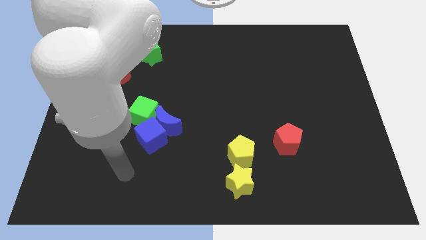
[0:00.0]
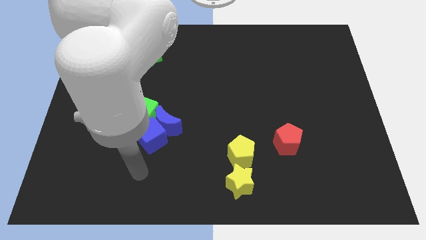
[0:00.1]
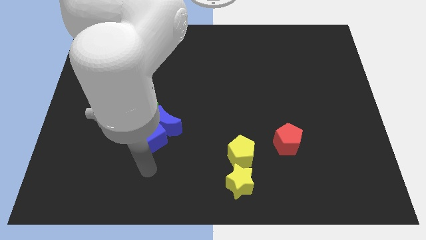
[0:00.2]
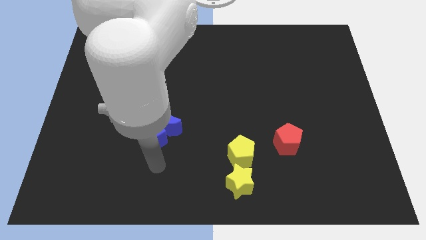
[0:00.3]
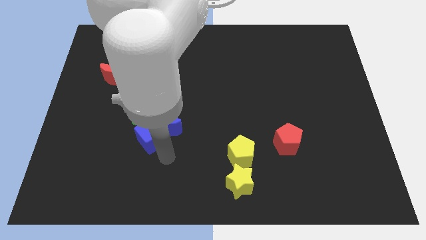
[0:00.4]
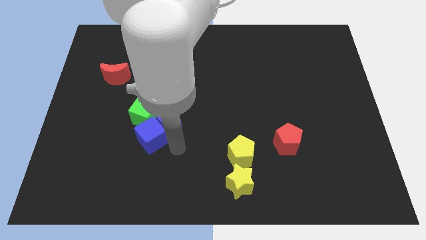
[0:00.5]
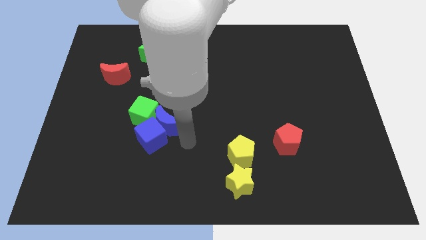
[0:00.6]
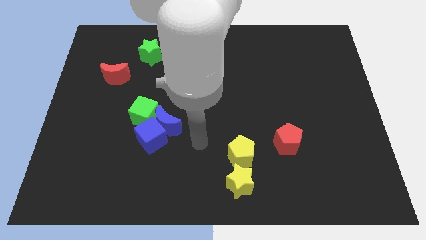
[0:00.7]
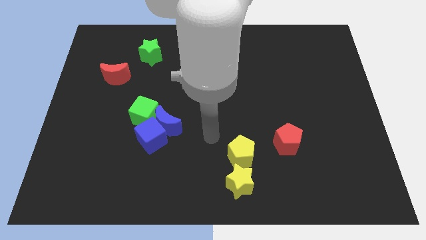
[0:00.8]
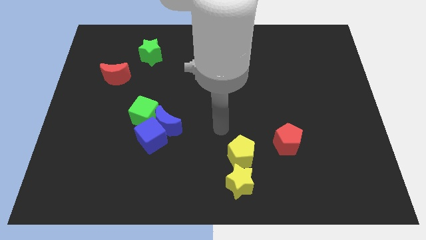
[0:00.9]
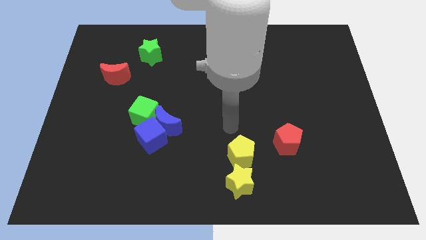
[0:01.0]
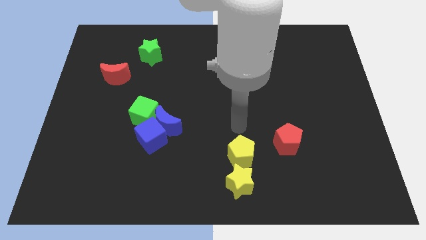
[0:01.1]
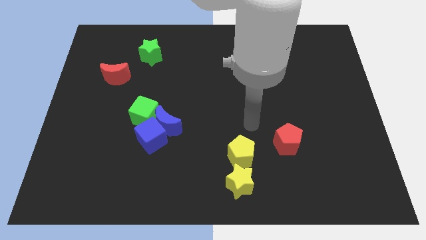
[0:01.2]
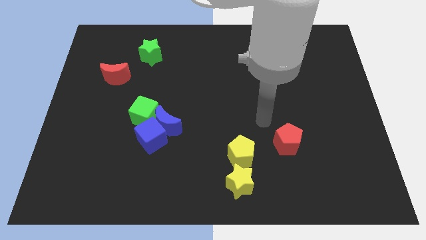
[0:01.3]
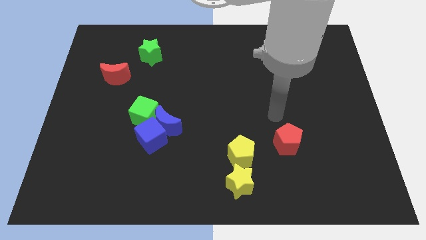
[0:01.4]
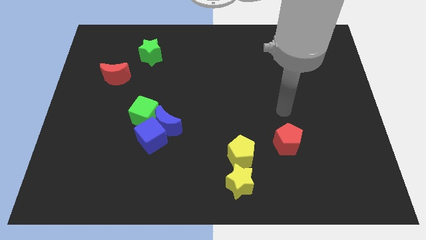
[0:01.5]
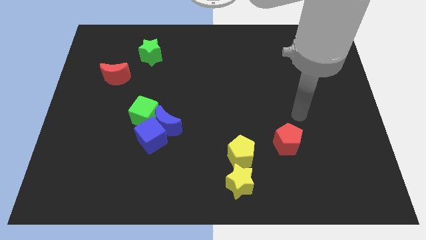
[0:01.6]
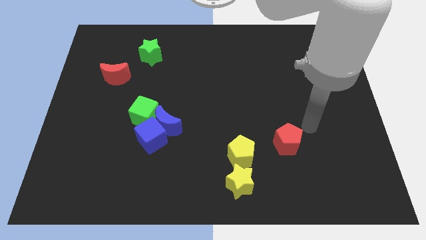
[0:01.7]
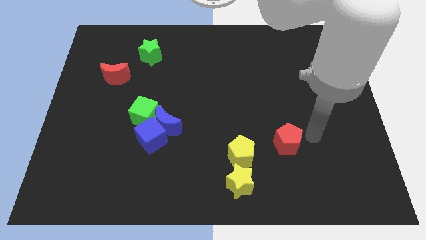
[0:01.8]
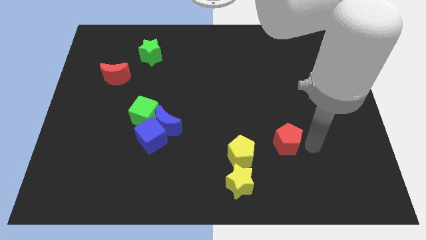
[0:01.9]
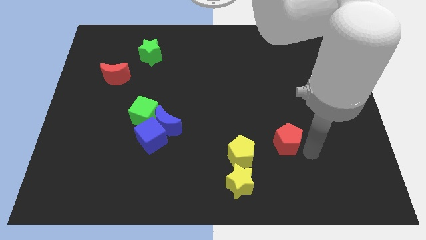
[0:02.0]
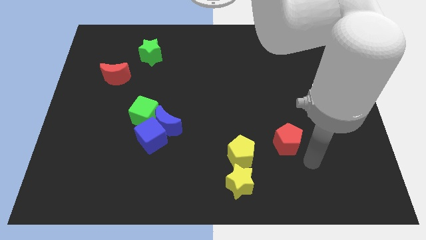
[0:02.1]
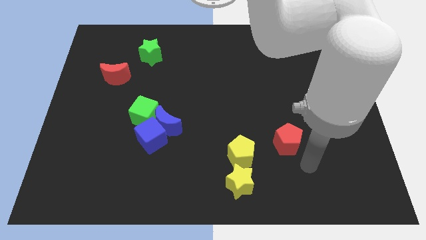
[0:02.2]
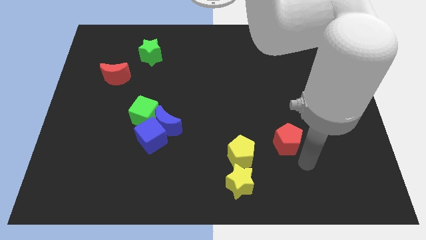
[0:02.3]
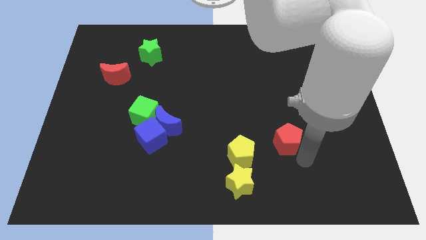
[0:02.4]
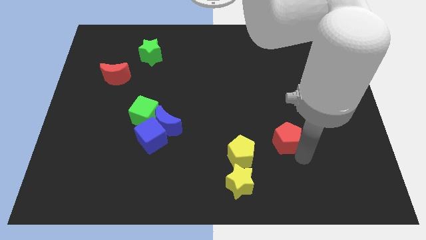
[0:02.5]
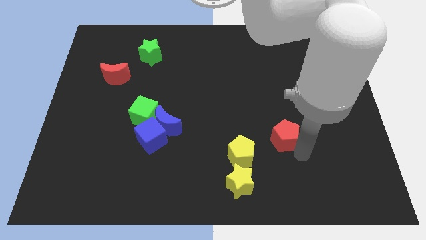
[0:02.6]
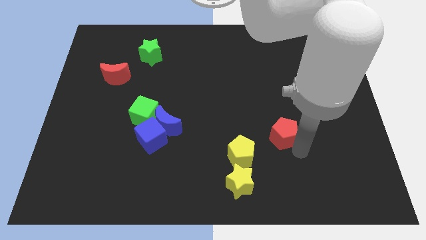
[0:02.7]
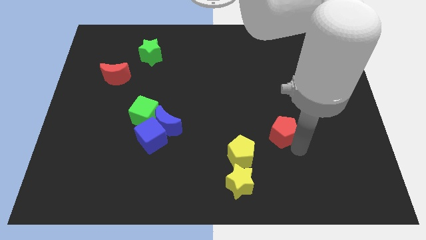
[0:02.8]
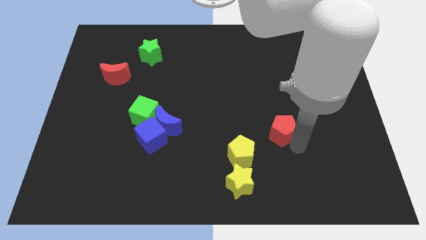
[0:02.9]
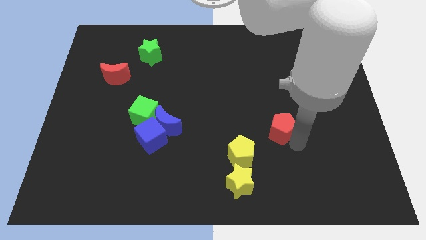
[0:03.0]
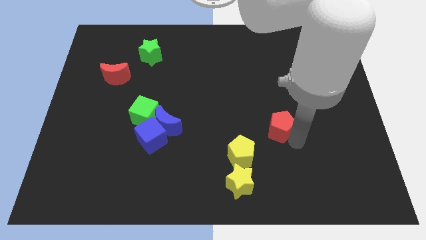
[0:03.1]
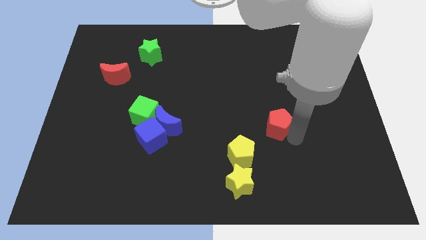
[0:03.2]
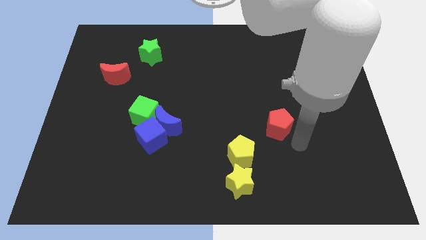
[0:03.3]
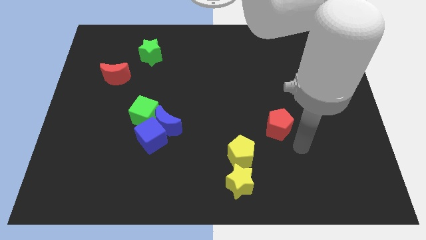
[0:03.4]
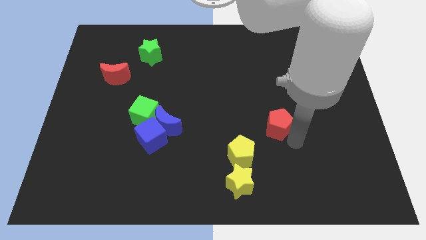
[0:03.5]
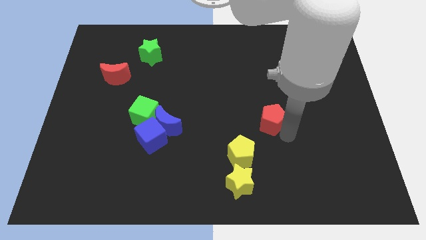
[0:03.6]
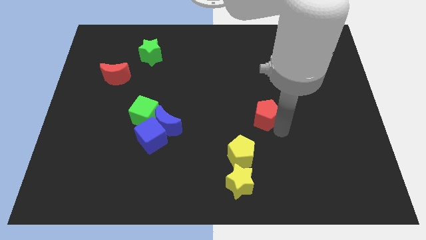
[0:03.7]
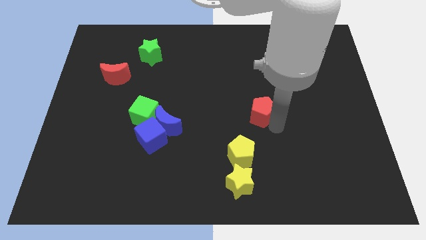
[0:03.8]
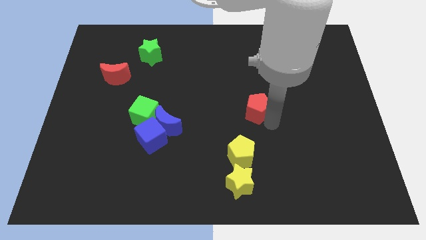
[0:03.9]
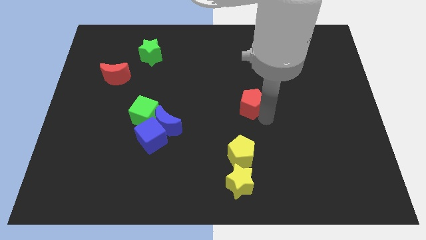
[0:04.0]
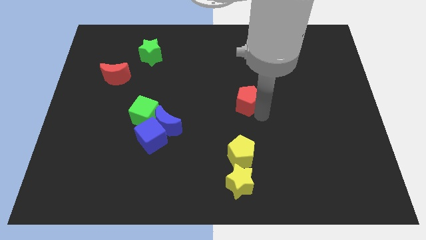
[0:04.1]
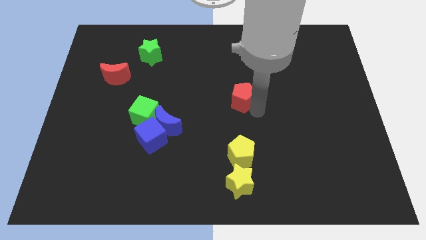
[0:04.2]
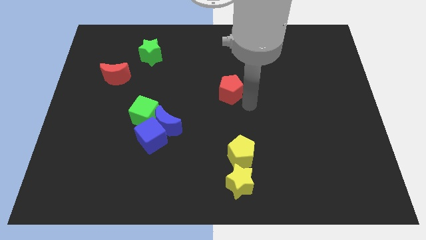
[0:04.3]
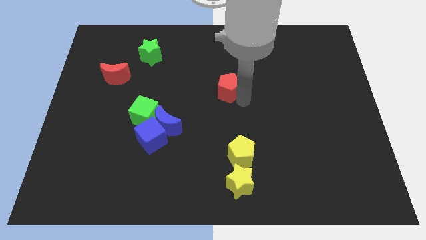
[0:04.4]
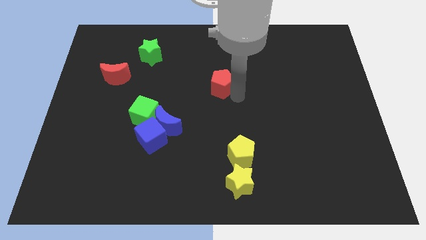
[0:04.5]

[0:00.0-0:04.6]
push the red pentagon up and left

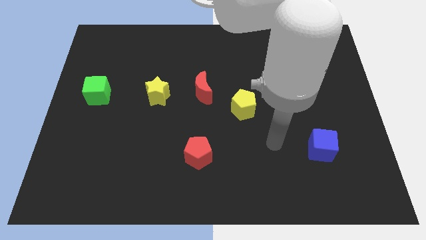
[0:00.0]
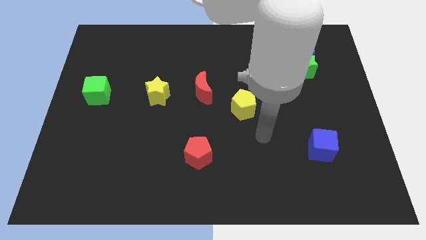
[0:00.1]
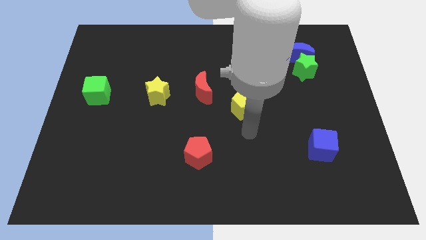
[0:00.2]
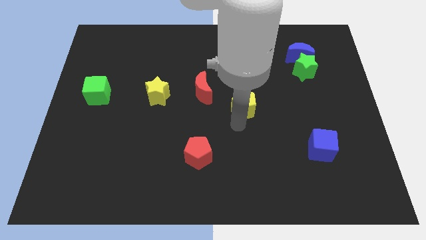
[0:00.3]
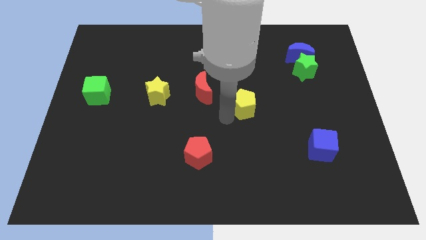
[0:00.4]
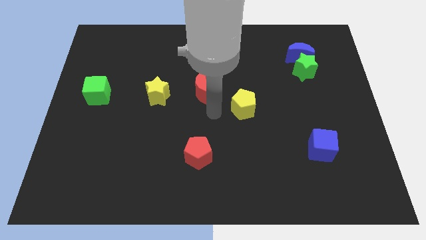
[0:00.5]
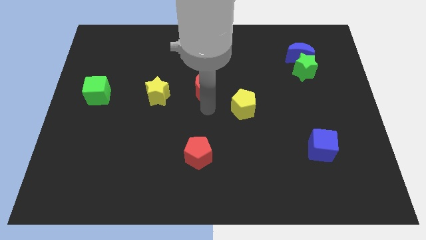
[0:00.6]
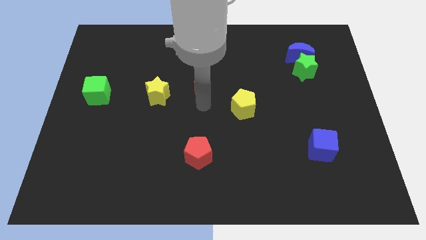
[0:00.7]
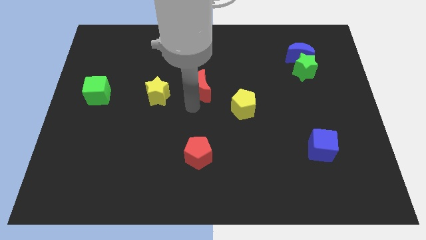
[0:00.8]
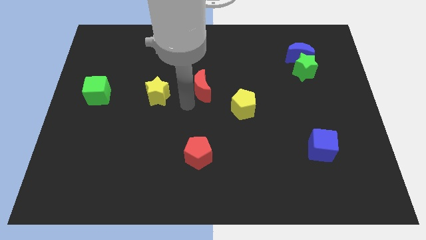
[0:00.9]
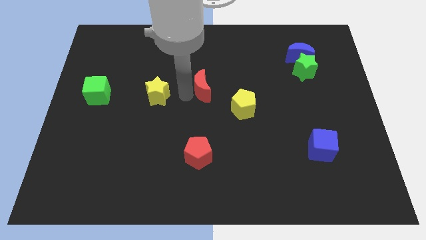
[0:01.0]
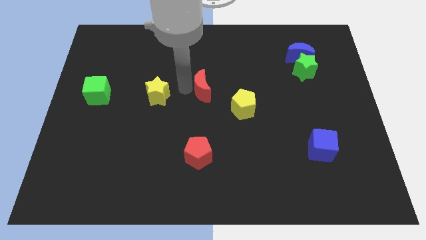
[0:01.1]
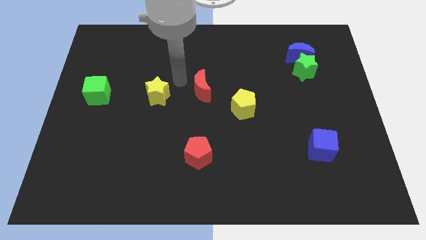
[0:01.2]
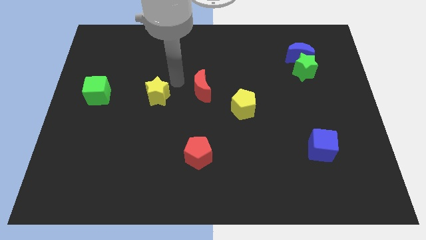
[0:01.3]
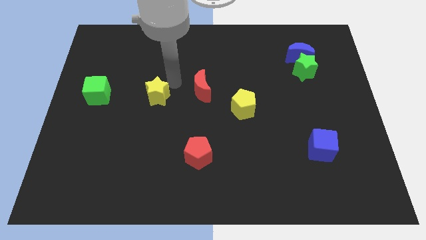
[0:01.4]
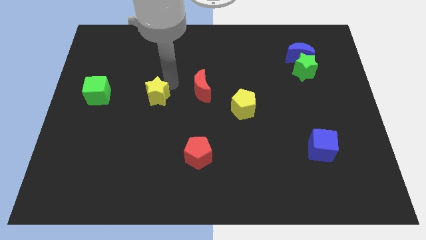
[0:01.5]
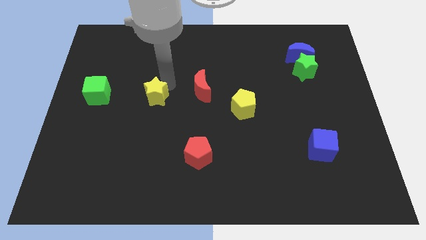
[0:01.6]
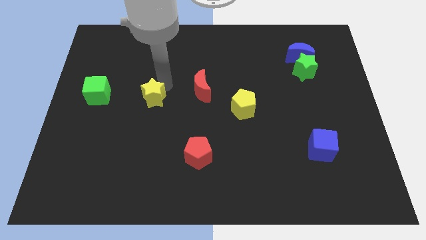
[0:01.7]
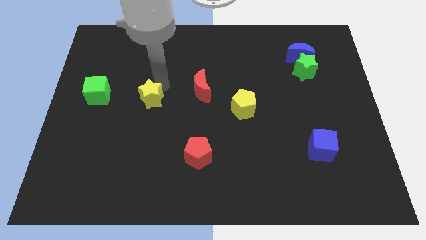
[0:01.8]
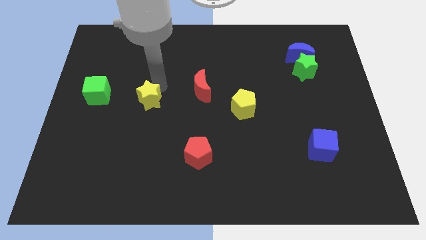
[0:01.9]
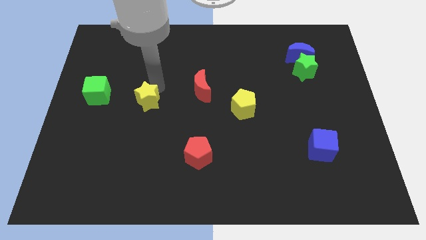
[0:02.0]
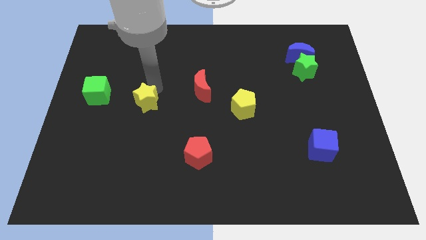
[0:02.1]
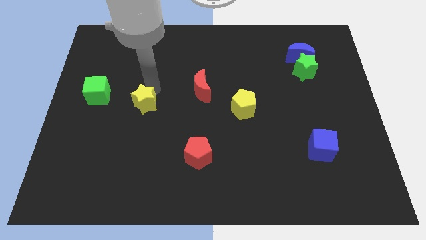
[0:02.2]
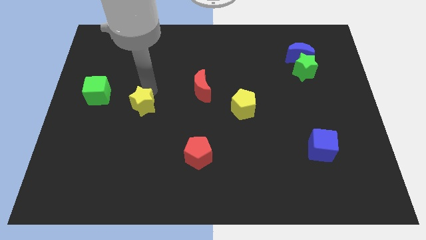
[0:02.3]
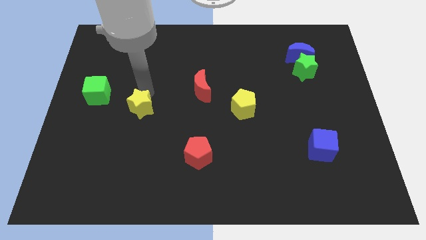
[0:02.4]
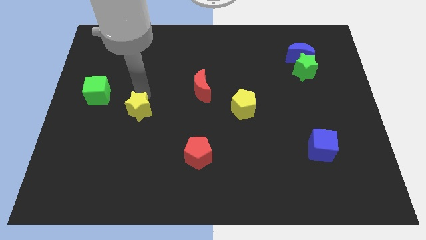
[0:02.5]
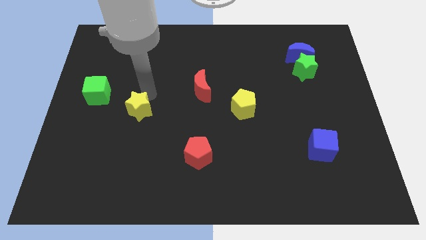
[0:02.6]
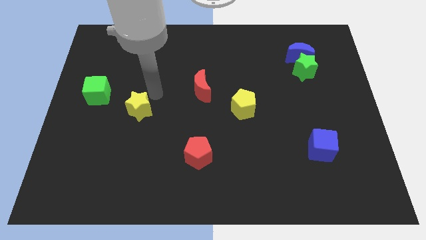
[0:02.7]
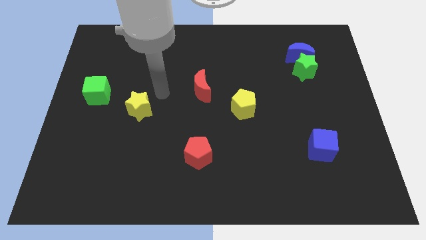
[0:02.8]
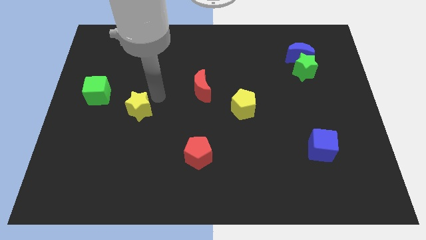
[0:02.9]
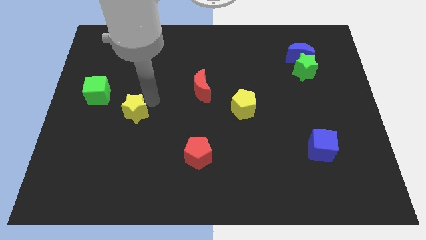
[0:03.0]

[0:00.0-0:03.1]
push the yellow star slightly down and to the left diagonally

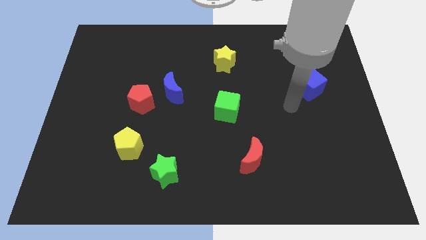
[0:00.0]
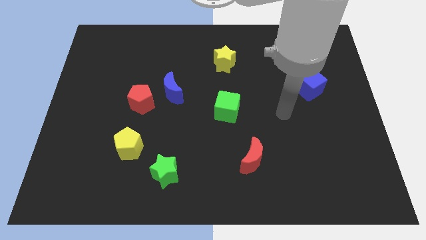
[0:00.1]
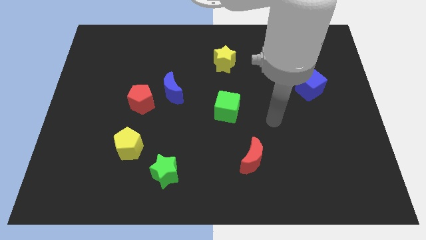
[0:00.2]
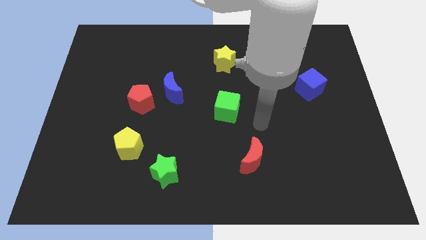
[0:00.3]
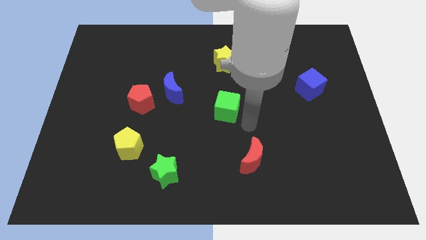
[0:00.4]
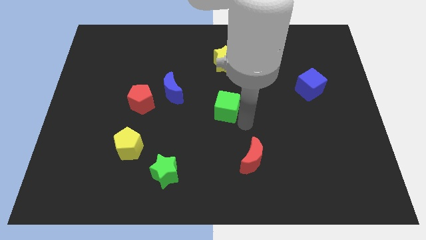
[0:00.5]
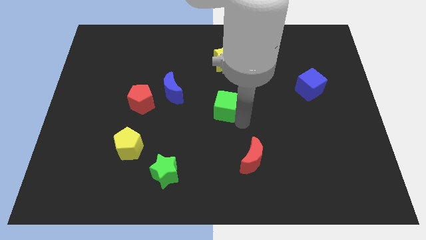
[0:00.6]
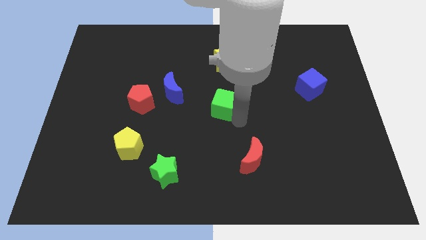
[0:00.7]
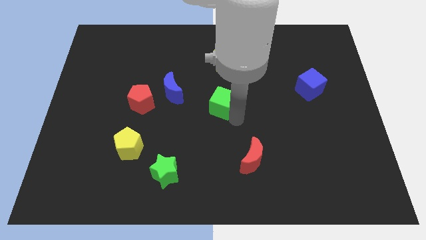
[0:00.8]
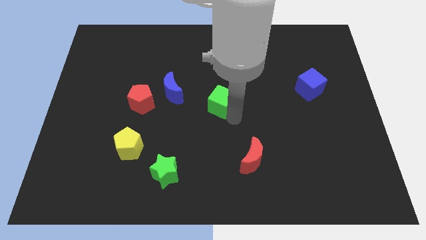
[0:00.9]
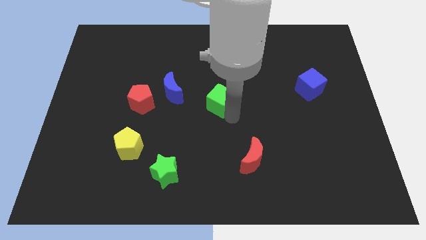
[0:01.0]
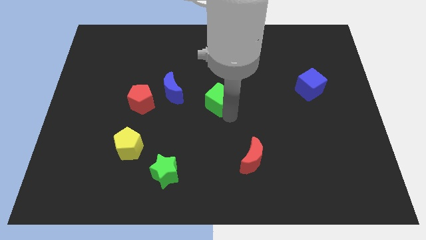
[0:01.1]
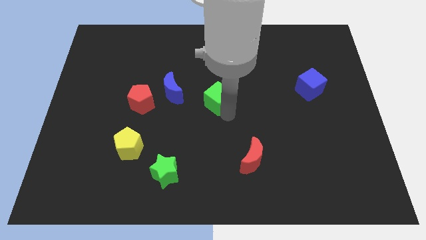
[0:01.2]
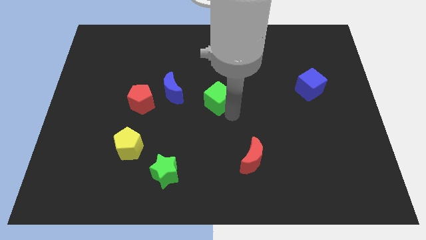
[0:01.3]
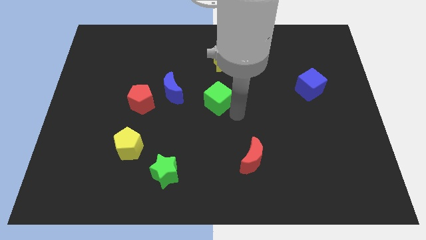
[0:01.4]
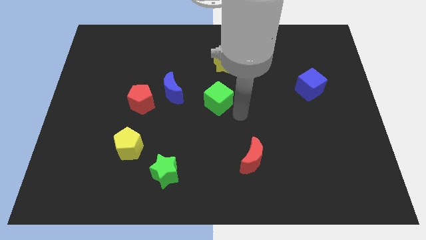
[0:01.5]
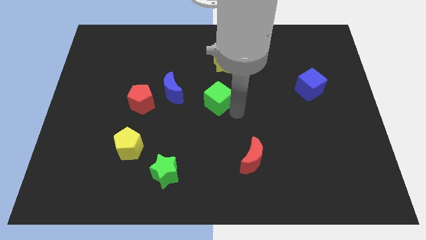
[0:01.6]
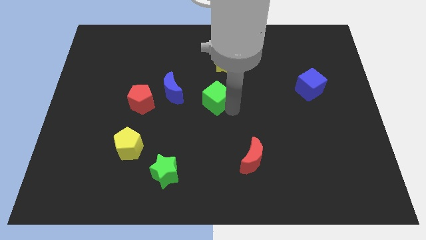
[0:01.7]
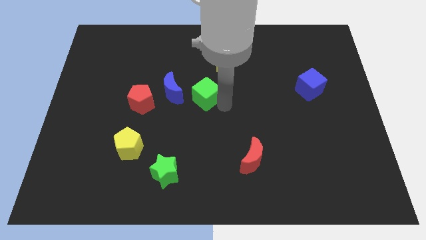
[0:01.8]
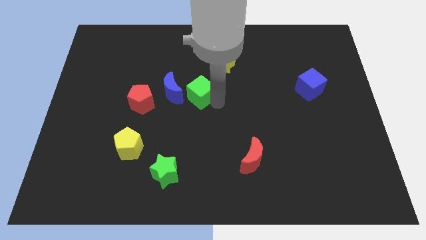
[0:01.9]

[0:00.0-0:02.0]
move the green cube a bit diagonally upwards and to the left
